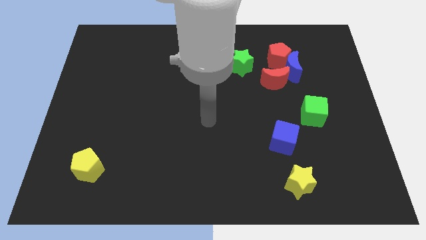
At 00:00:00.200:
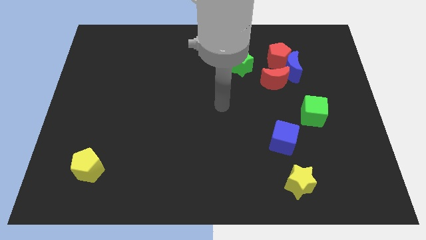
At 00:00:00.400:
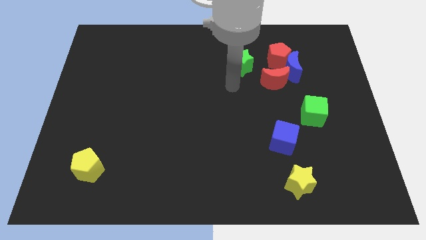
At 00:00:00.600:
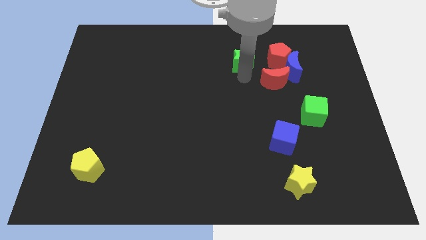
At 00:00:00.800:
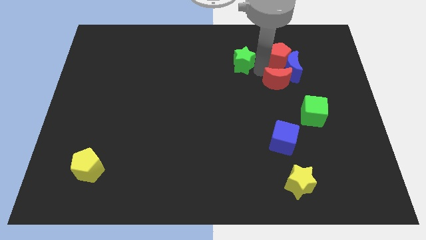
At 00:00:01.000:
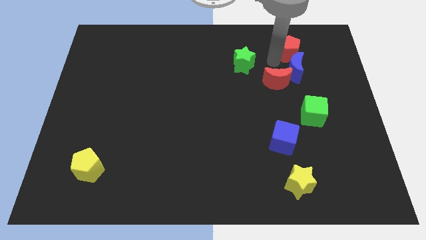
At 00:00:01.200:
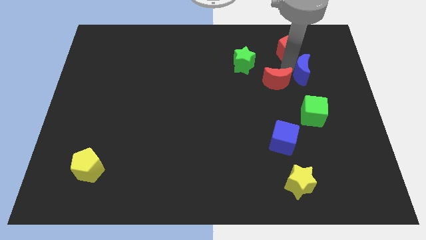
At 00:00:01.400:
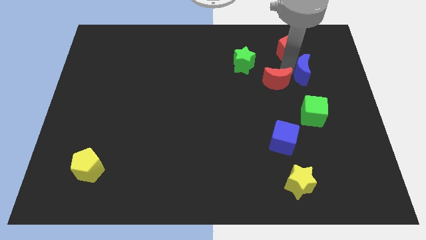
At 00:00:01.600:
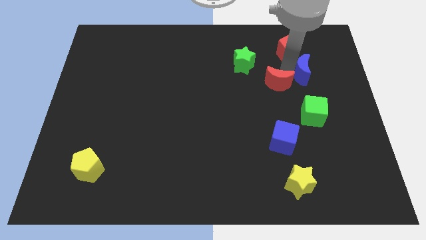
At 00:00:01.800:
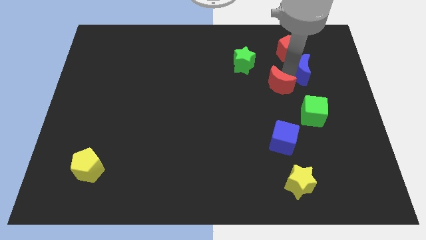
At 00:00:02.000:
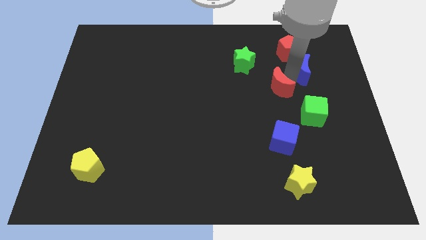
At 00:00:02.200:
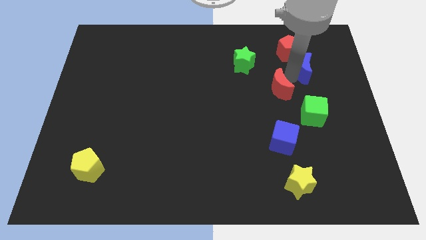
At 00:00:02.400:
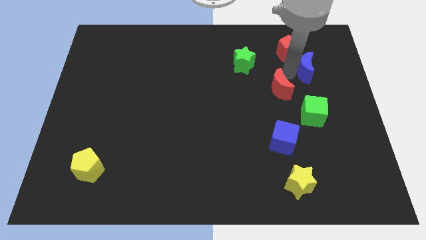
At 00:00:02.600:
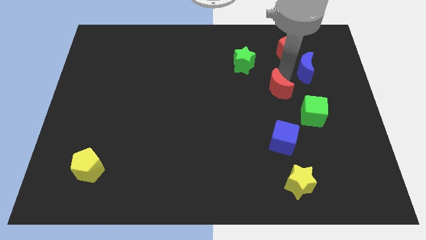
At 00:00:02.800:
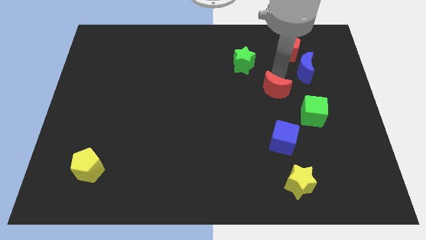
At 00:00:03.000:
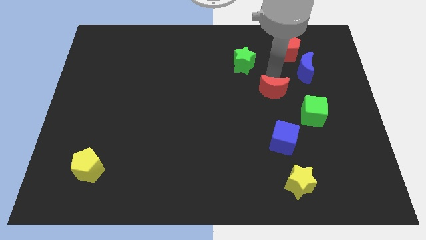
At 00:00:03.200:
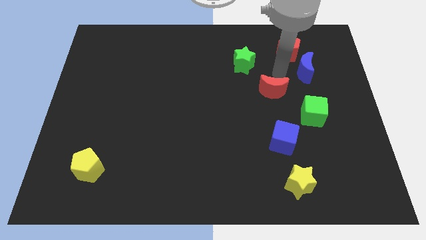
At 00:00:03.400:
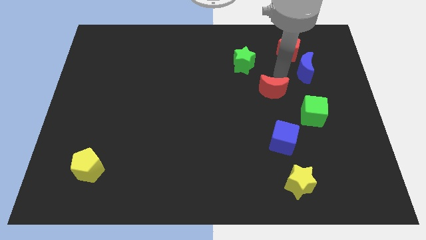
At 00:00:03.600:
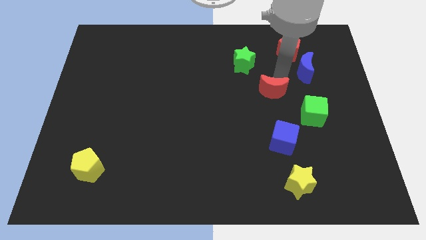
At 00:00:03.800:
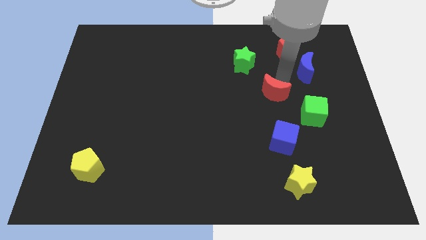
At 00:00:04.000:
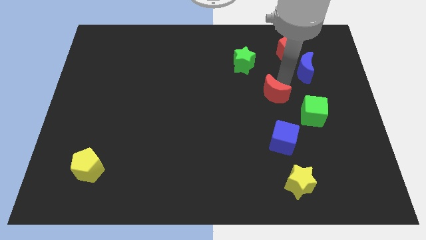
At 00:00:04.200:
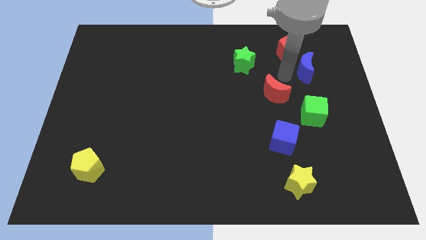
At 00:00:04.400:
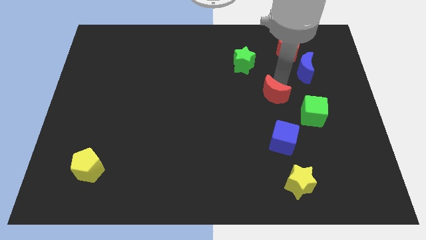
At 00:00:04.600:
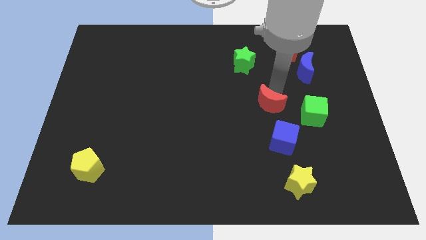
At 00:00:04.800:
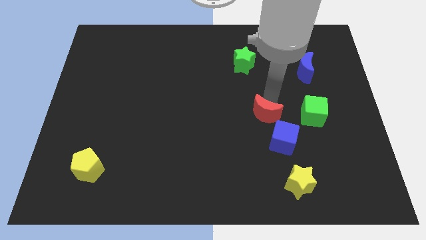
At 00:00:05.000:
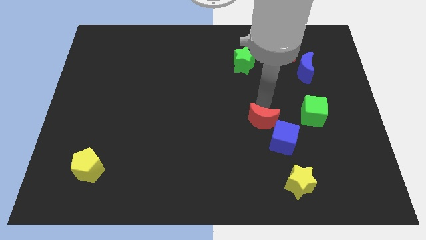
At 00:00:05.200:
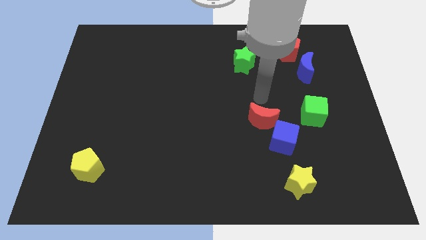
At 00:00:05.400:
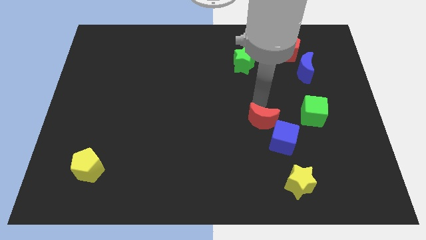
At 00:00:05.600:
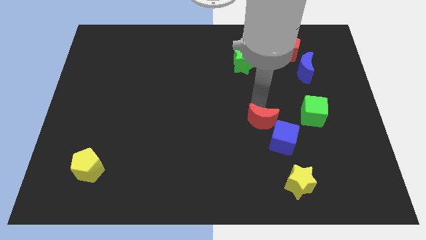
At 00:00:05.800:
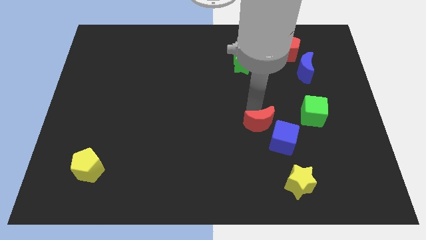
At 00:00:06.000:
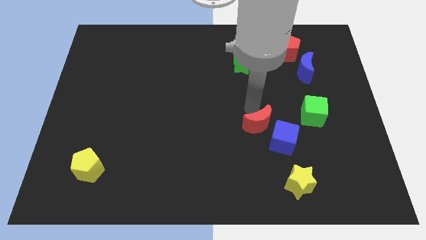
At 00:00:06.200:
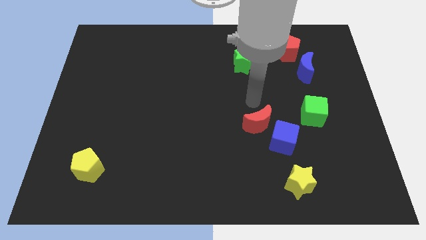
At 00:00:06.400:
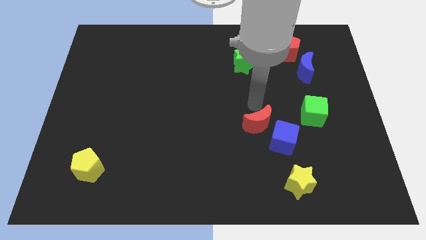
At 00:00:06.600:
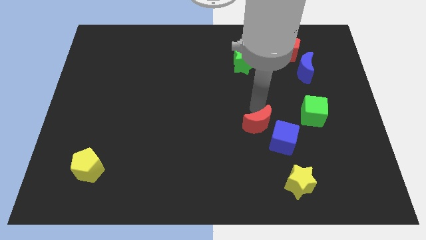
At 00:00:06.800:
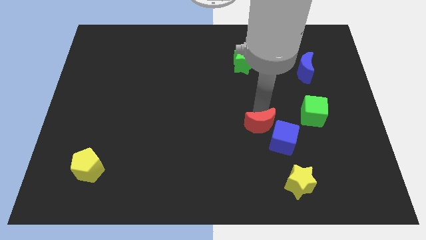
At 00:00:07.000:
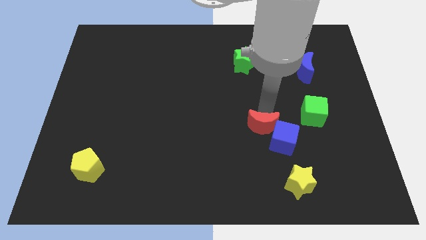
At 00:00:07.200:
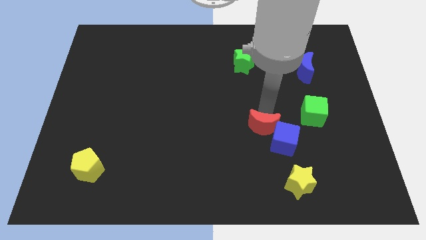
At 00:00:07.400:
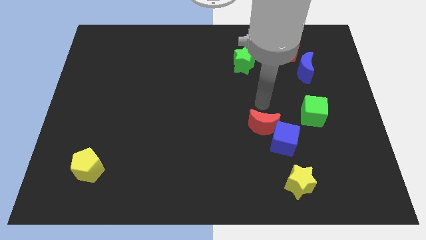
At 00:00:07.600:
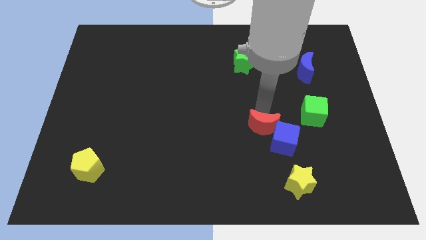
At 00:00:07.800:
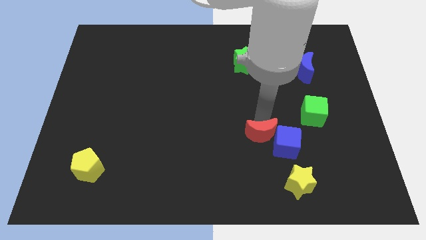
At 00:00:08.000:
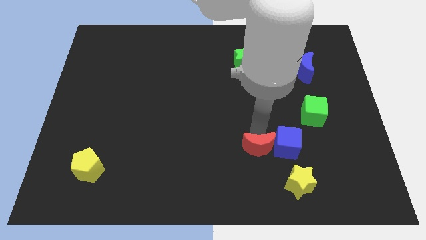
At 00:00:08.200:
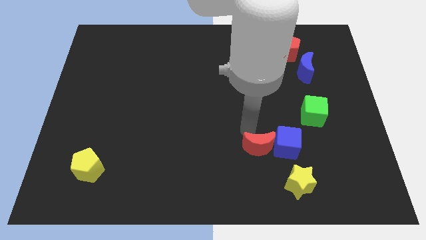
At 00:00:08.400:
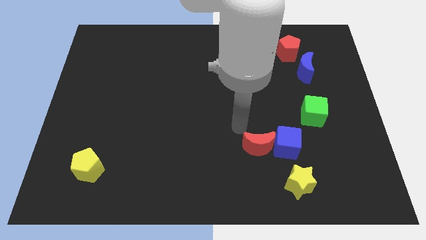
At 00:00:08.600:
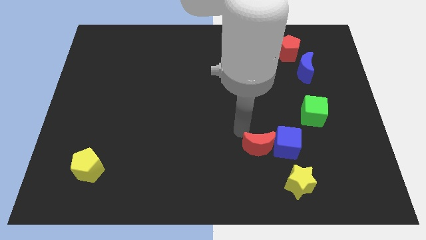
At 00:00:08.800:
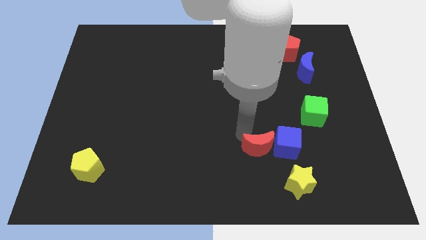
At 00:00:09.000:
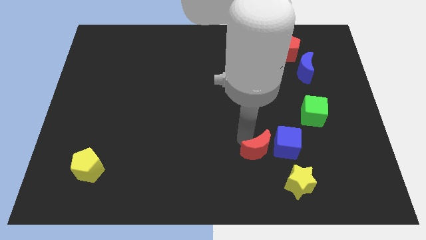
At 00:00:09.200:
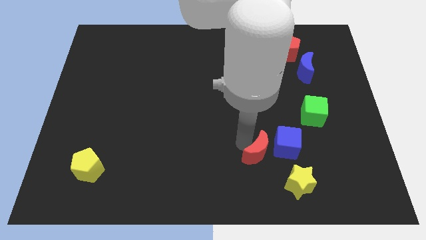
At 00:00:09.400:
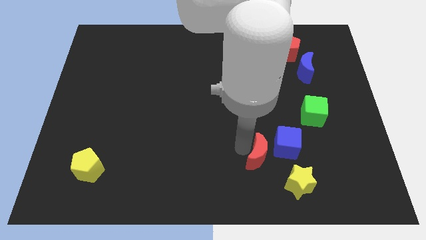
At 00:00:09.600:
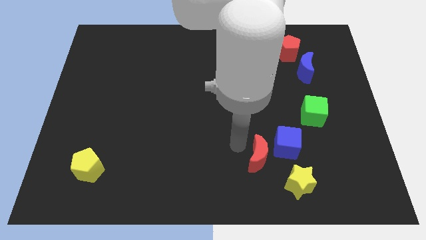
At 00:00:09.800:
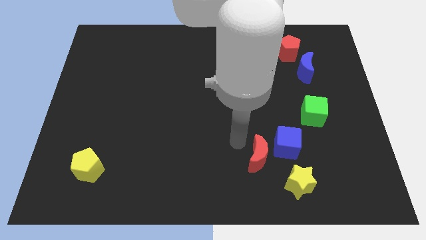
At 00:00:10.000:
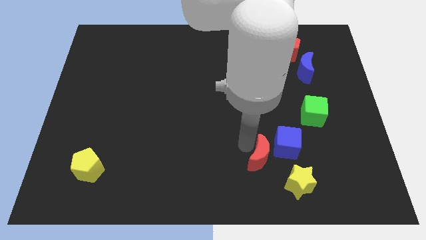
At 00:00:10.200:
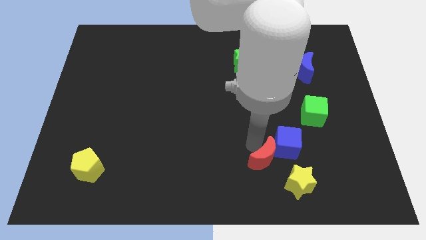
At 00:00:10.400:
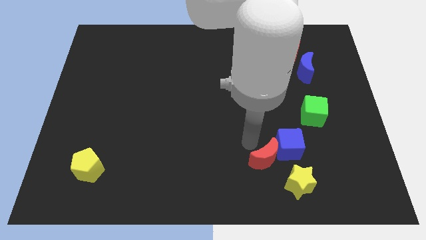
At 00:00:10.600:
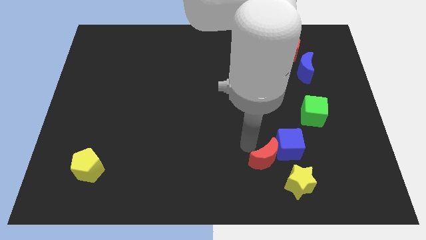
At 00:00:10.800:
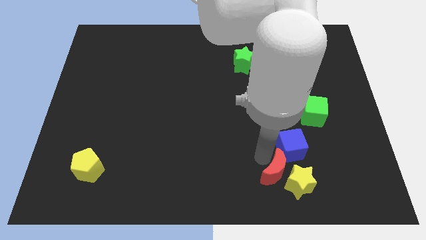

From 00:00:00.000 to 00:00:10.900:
put the red moon to the yellow star

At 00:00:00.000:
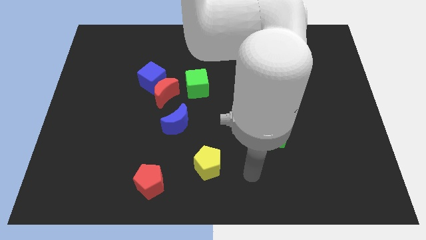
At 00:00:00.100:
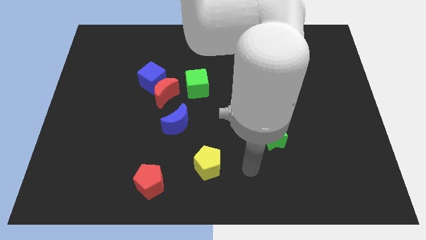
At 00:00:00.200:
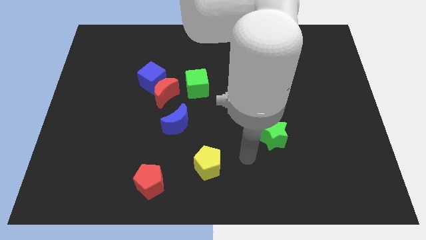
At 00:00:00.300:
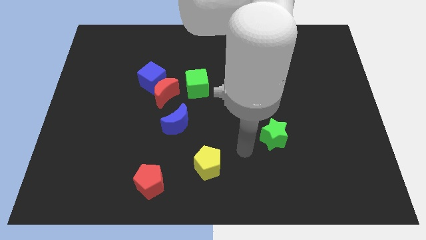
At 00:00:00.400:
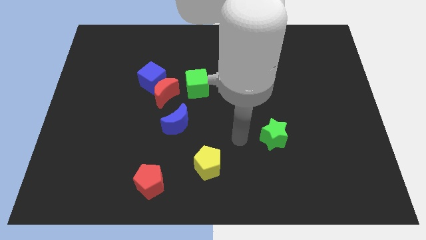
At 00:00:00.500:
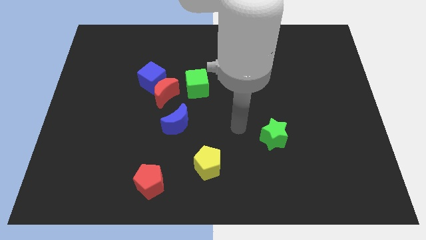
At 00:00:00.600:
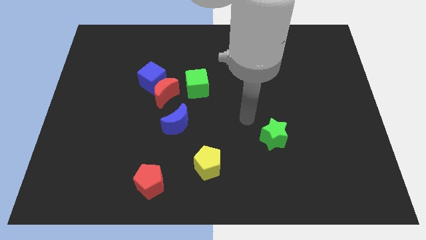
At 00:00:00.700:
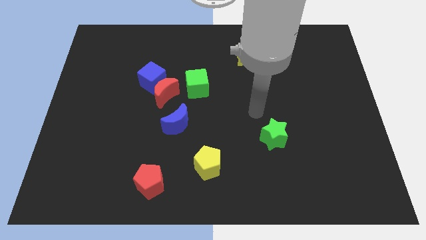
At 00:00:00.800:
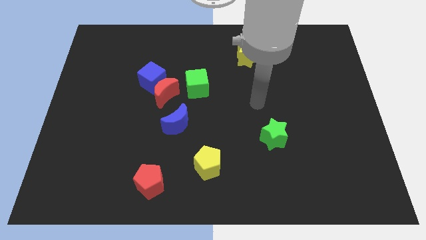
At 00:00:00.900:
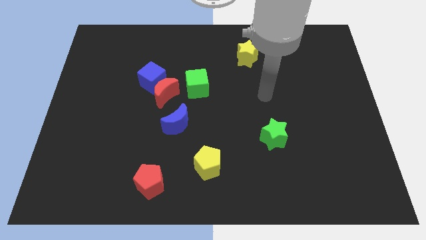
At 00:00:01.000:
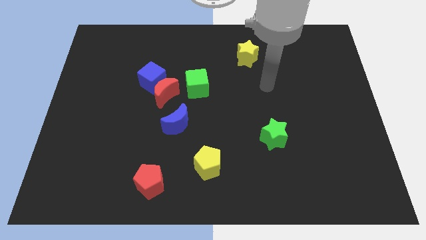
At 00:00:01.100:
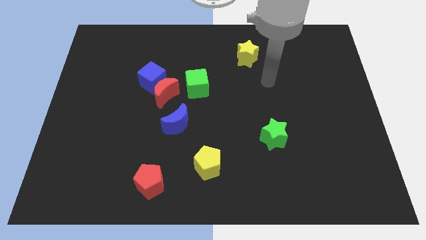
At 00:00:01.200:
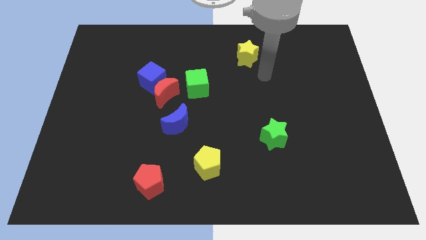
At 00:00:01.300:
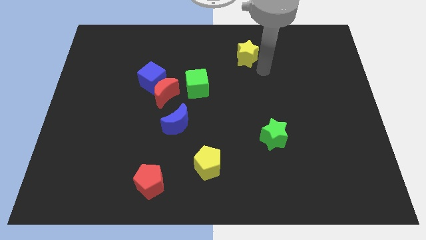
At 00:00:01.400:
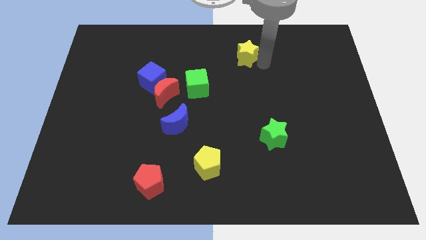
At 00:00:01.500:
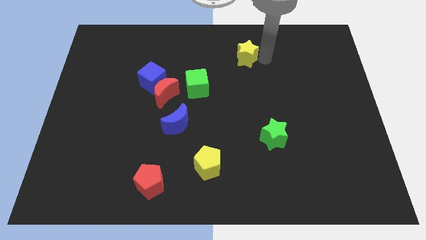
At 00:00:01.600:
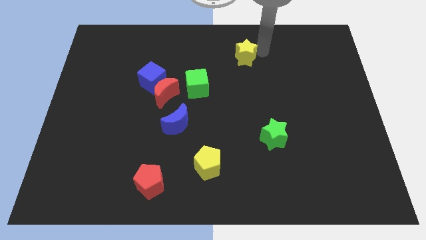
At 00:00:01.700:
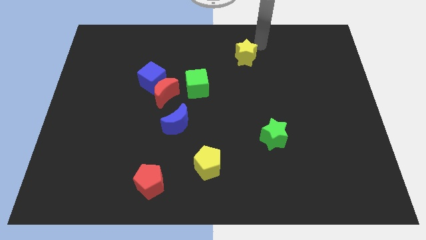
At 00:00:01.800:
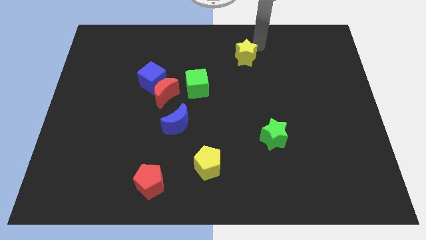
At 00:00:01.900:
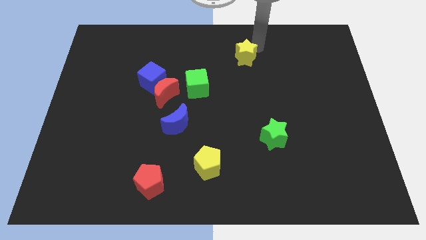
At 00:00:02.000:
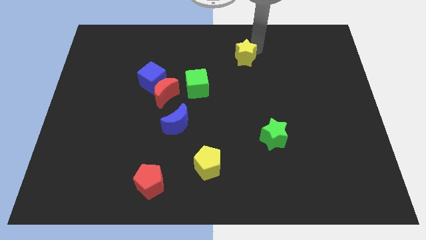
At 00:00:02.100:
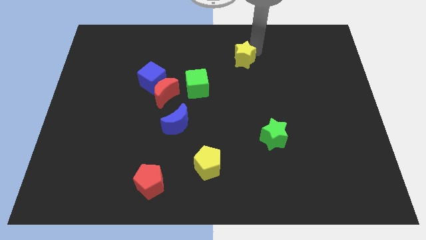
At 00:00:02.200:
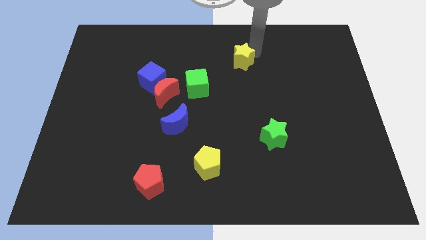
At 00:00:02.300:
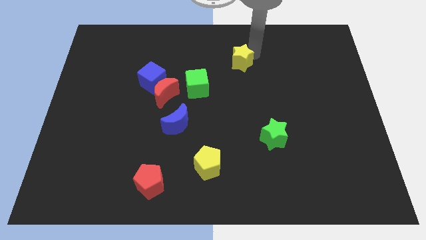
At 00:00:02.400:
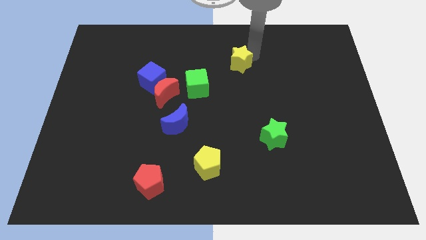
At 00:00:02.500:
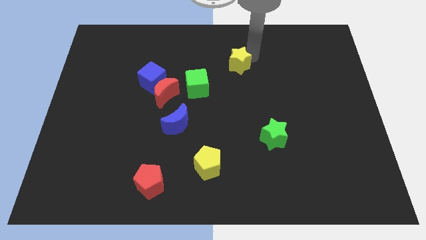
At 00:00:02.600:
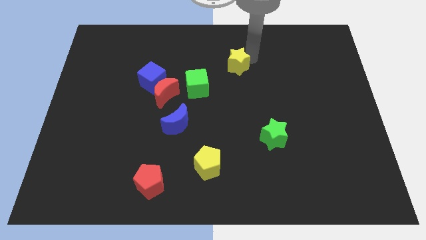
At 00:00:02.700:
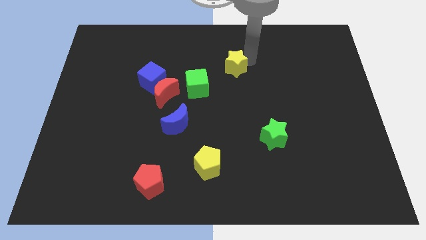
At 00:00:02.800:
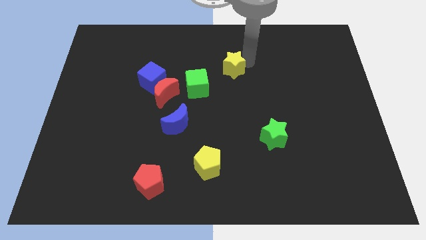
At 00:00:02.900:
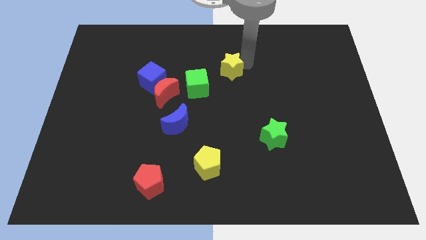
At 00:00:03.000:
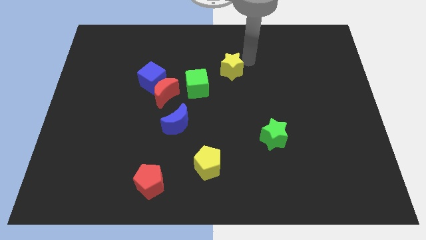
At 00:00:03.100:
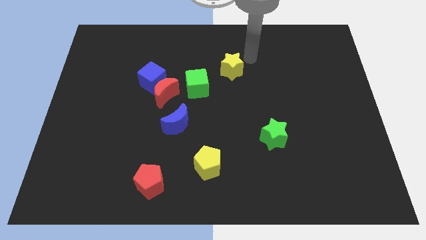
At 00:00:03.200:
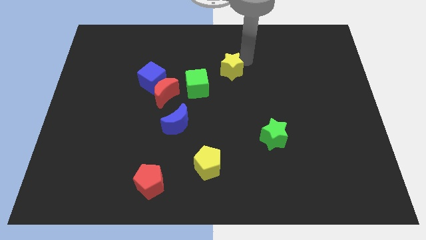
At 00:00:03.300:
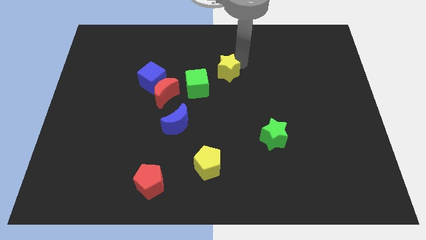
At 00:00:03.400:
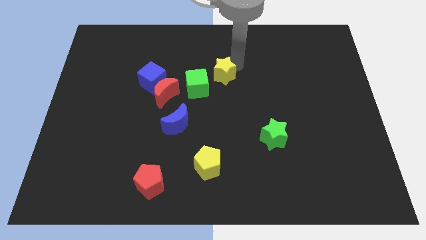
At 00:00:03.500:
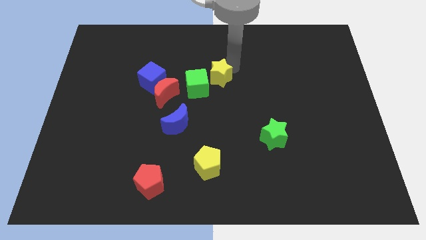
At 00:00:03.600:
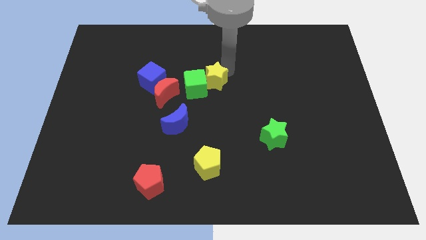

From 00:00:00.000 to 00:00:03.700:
slide the yellow star to the green cube
